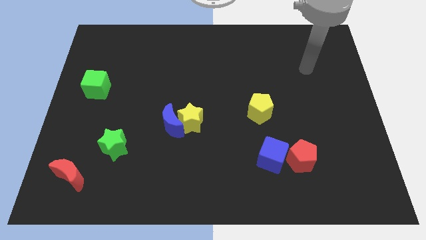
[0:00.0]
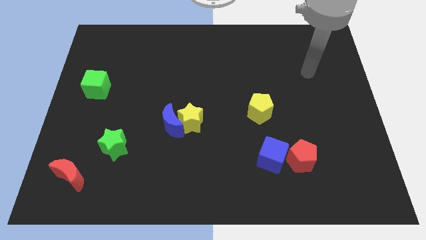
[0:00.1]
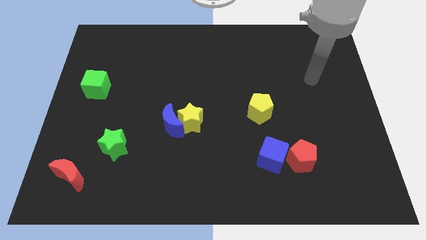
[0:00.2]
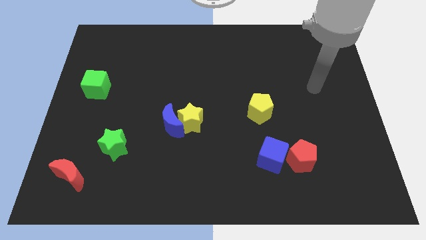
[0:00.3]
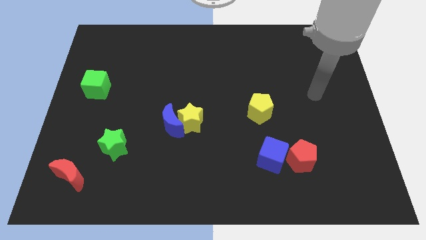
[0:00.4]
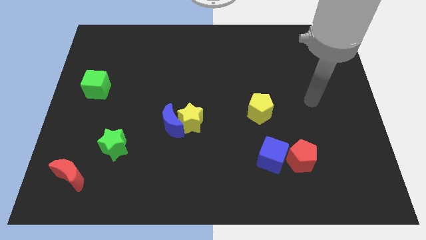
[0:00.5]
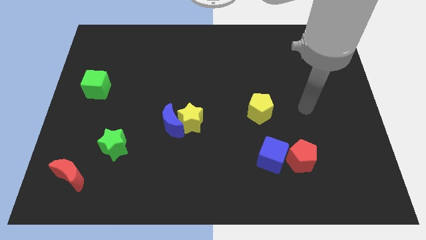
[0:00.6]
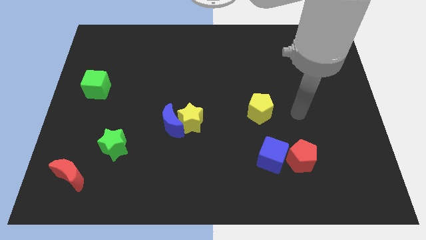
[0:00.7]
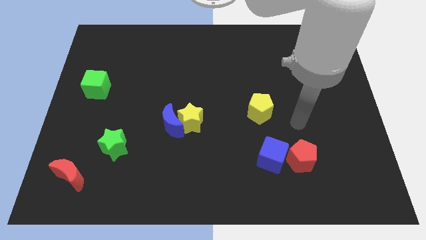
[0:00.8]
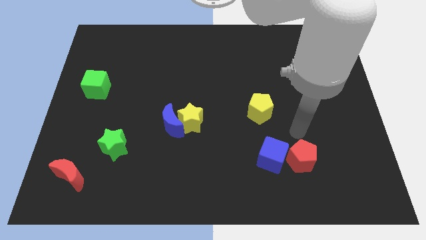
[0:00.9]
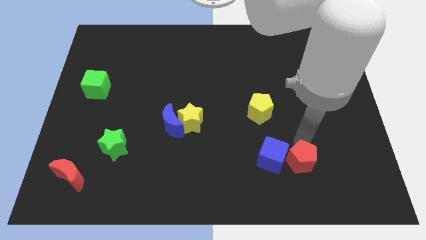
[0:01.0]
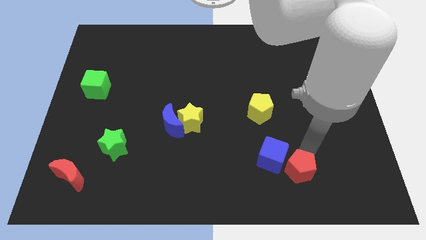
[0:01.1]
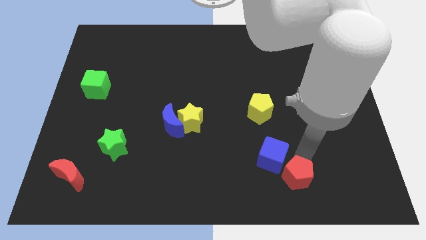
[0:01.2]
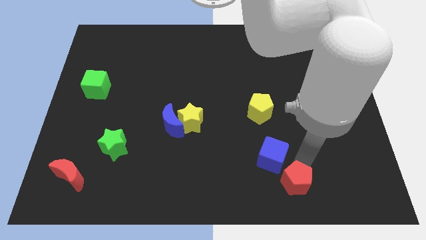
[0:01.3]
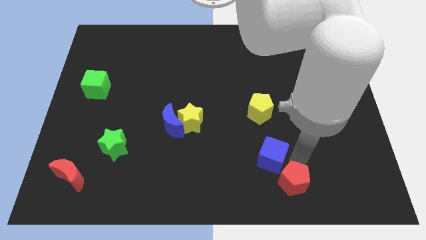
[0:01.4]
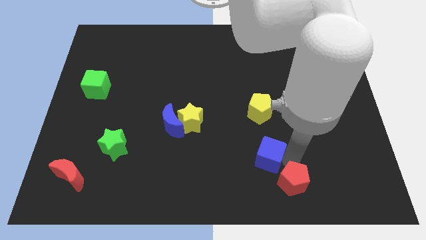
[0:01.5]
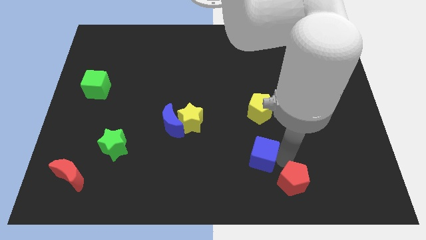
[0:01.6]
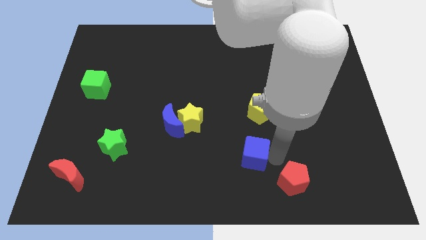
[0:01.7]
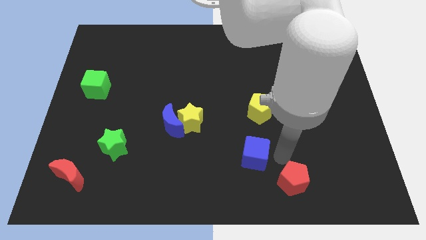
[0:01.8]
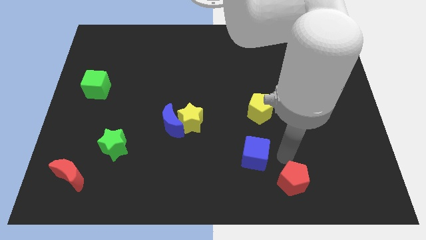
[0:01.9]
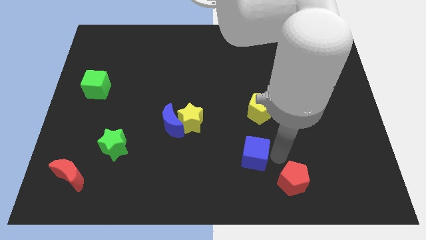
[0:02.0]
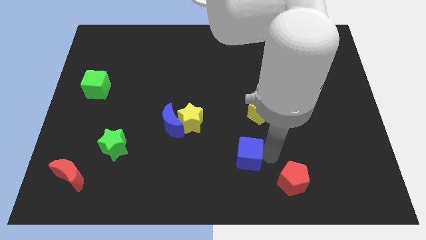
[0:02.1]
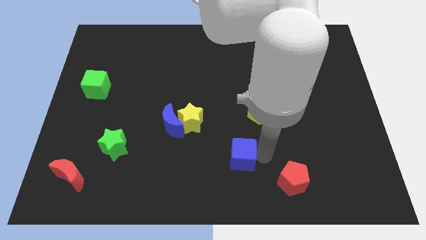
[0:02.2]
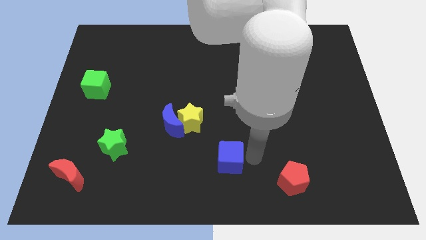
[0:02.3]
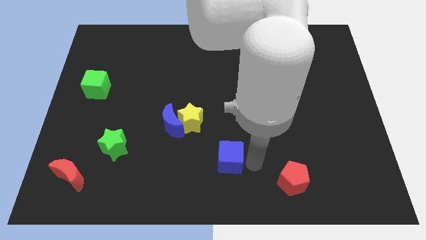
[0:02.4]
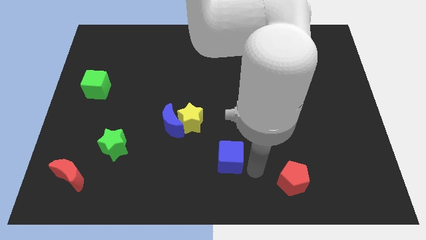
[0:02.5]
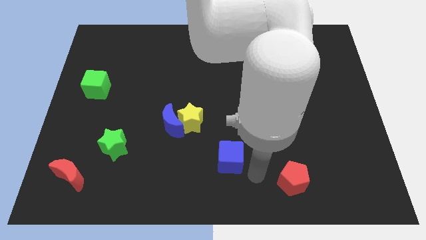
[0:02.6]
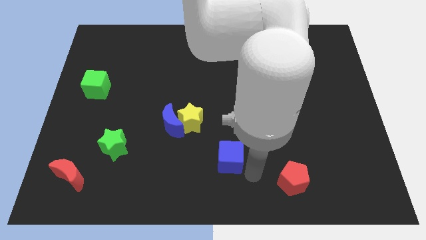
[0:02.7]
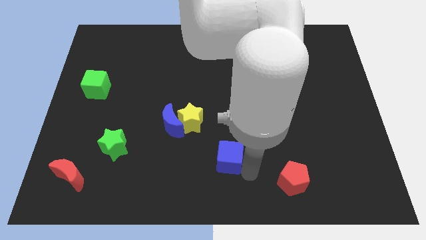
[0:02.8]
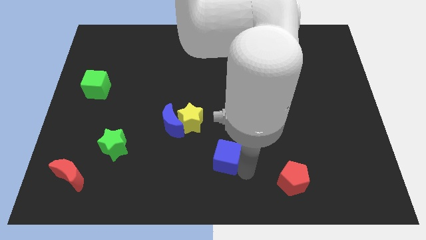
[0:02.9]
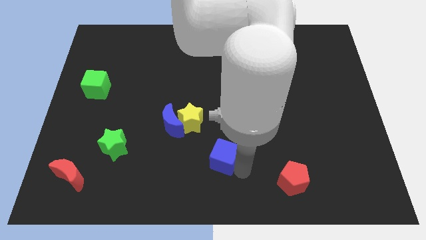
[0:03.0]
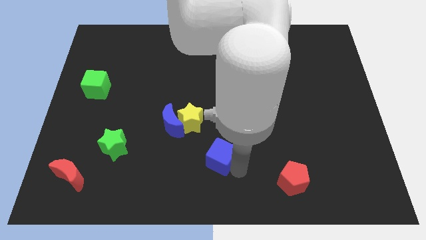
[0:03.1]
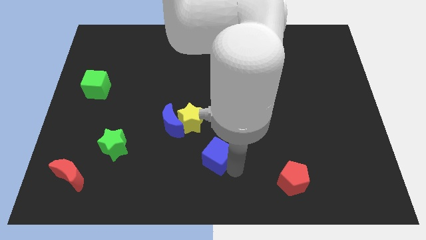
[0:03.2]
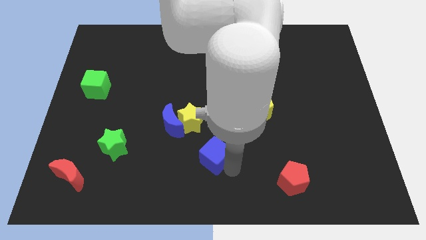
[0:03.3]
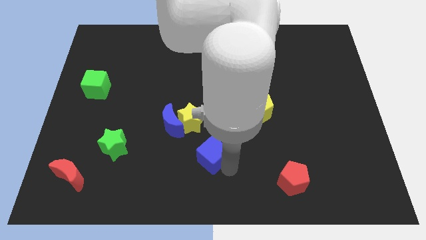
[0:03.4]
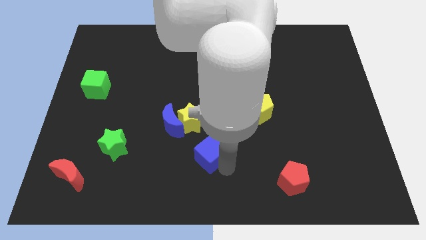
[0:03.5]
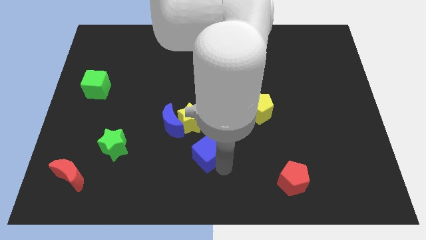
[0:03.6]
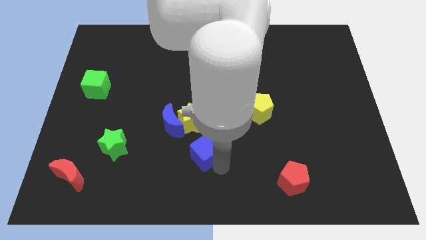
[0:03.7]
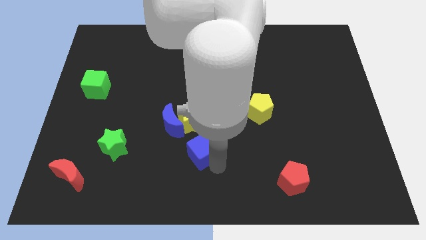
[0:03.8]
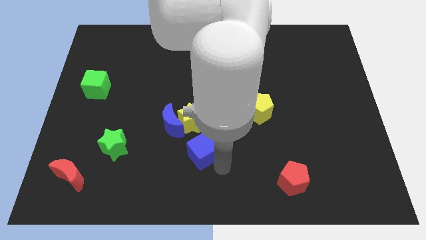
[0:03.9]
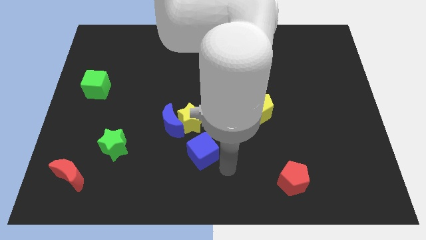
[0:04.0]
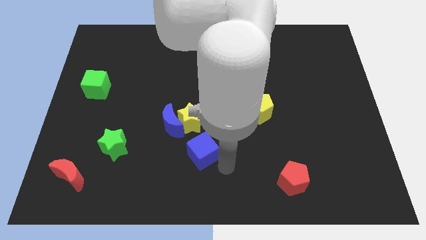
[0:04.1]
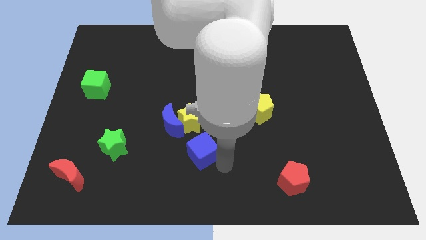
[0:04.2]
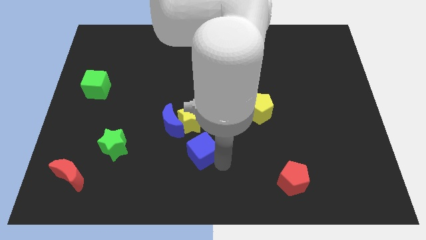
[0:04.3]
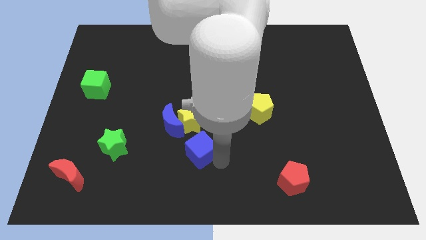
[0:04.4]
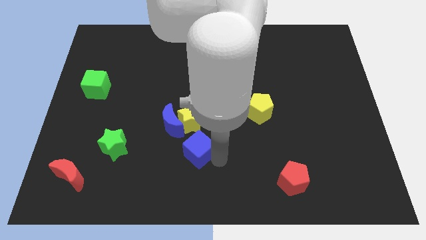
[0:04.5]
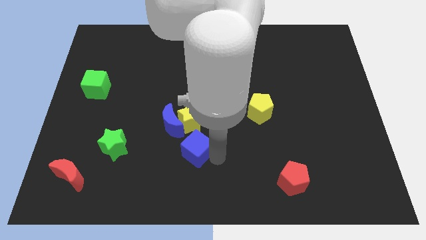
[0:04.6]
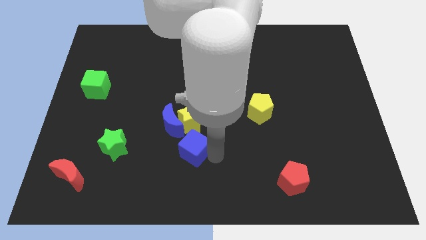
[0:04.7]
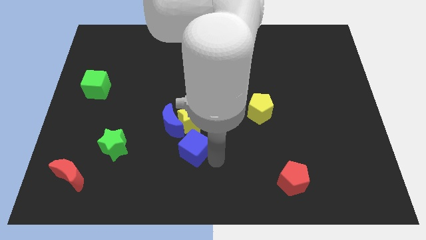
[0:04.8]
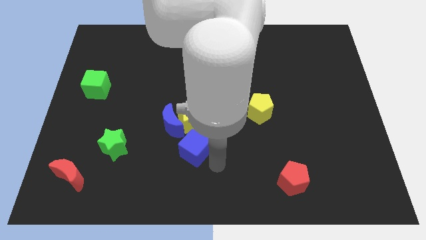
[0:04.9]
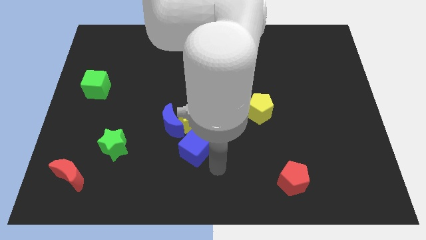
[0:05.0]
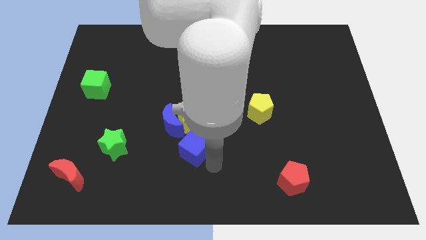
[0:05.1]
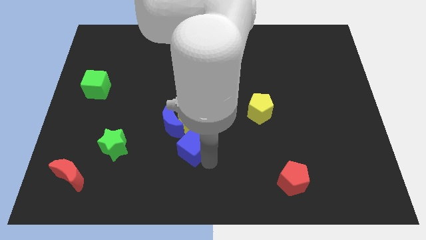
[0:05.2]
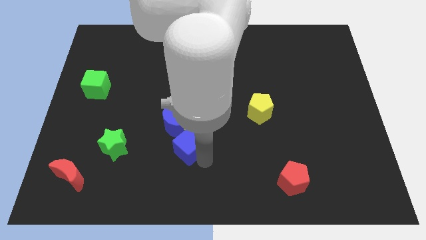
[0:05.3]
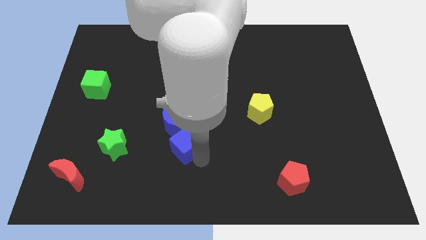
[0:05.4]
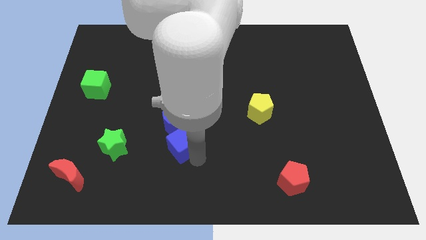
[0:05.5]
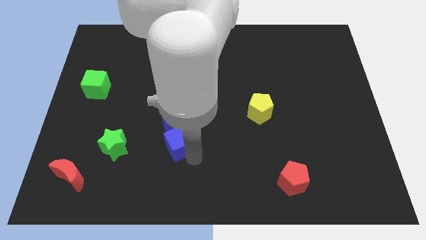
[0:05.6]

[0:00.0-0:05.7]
push the blue cube close to the blue moon

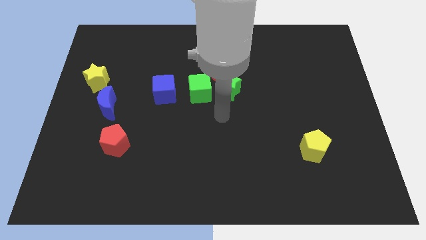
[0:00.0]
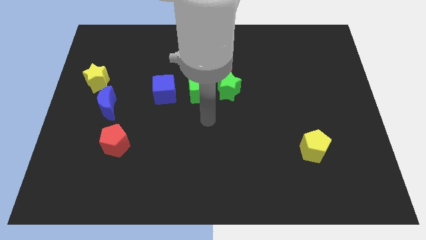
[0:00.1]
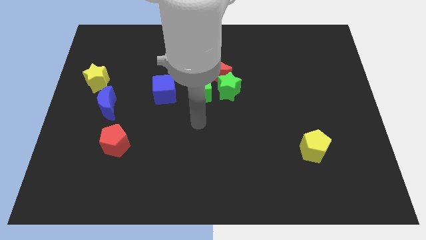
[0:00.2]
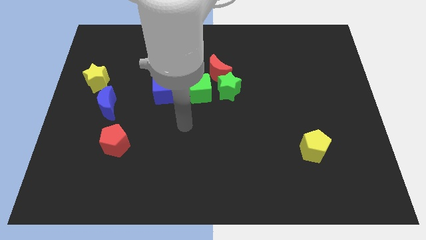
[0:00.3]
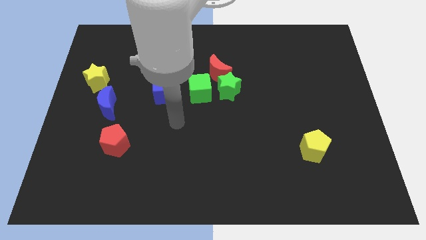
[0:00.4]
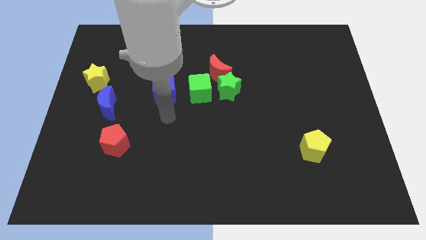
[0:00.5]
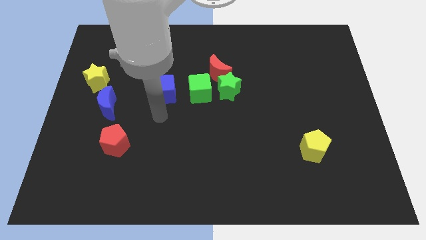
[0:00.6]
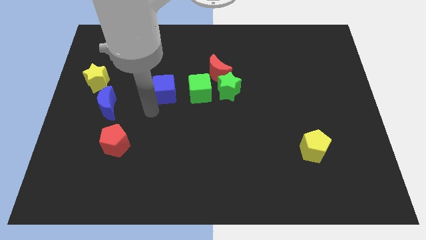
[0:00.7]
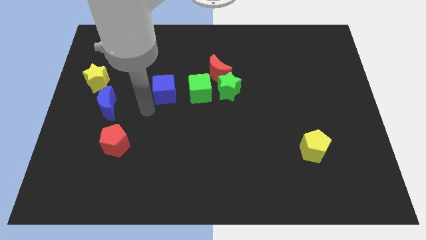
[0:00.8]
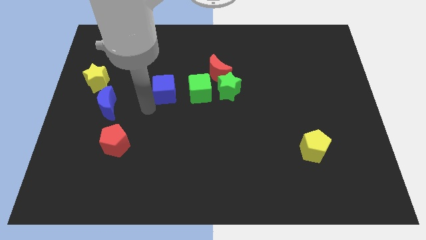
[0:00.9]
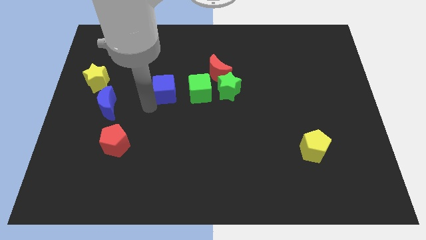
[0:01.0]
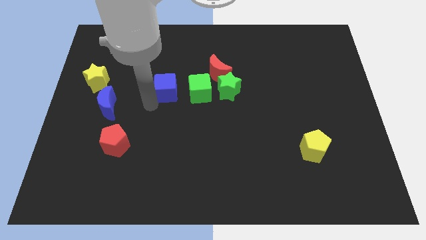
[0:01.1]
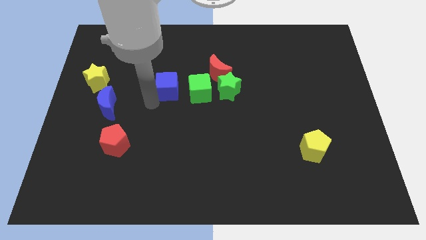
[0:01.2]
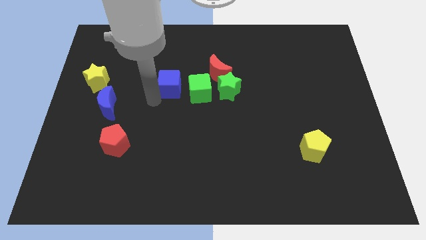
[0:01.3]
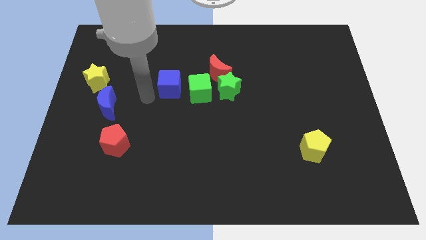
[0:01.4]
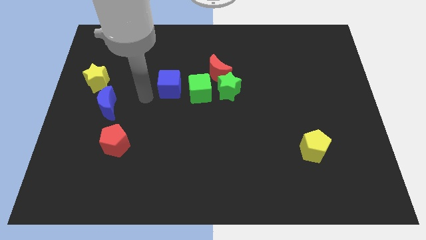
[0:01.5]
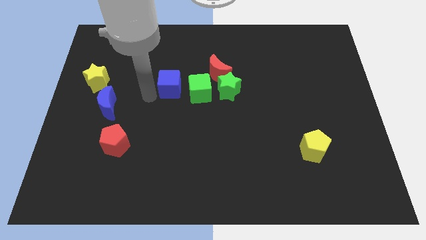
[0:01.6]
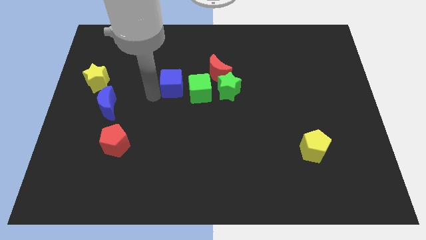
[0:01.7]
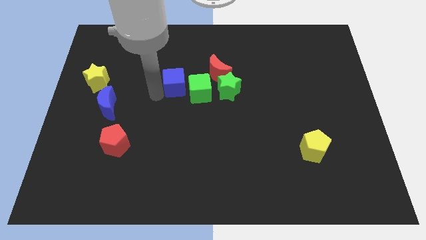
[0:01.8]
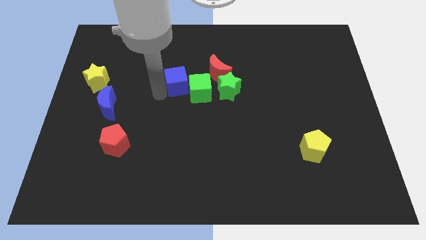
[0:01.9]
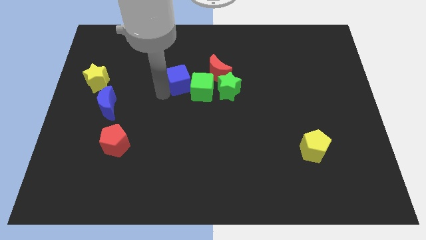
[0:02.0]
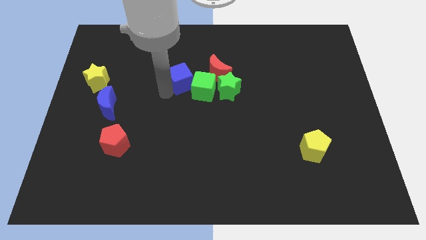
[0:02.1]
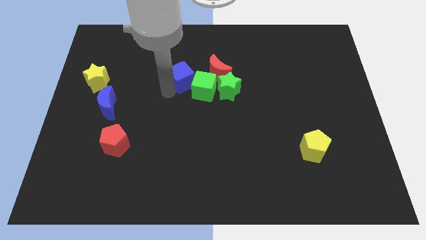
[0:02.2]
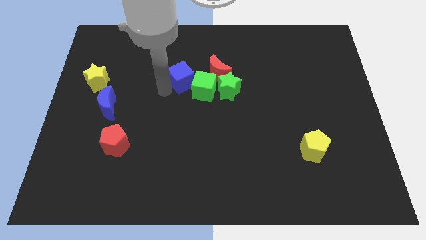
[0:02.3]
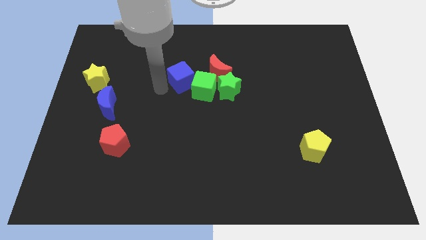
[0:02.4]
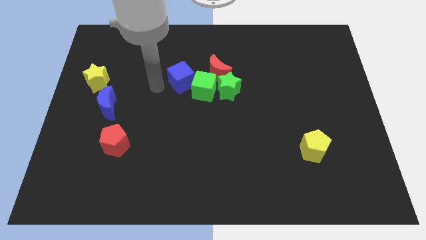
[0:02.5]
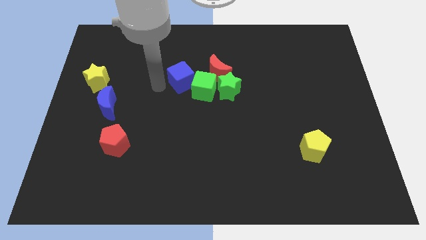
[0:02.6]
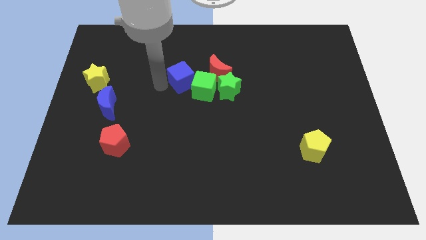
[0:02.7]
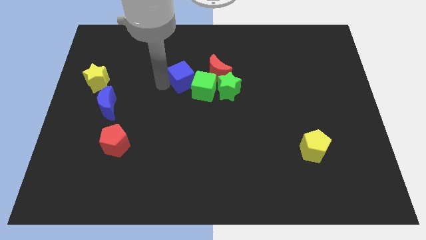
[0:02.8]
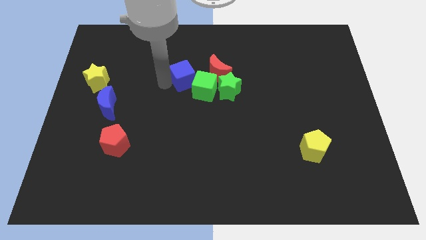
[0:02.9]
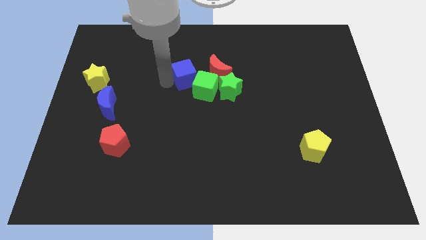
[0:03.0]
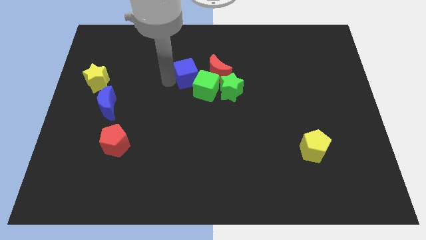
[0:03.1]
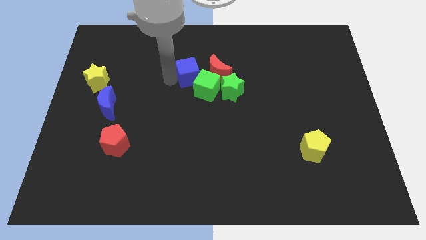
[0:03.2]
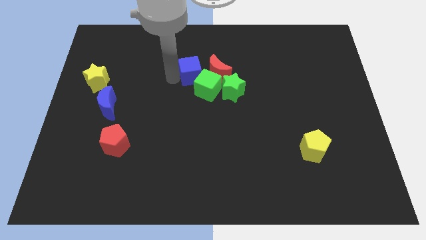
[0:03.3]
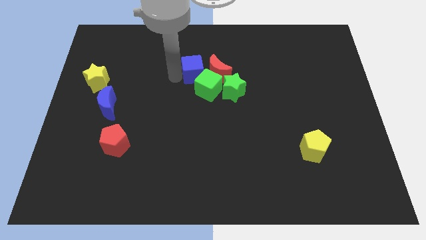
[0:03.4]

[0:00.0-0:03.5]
put the blue cube to the red moon
